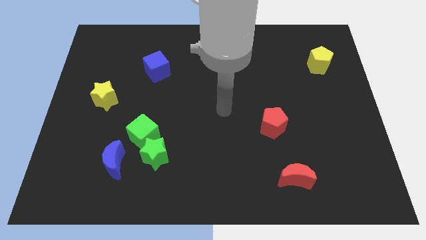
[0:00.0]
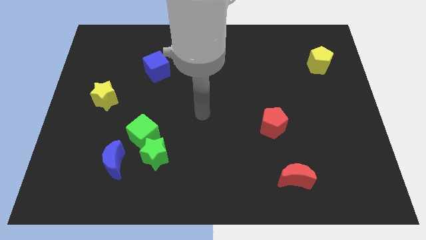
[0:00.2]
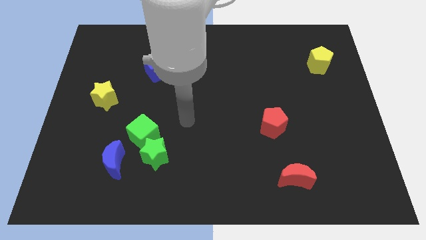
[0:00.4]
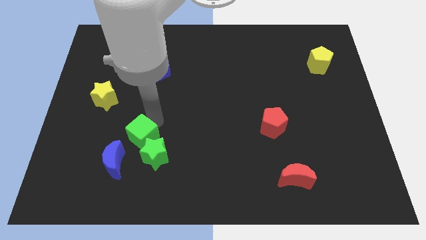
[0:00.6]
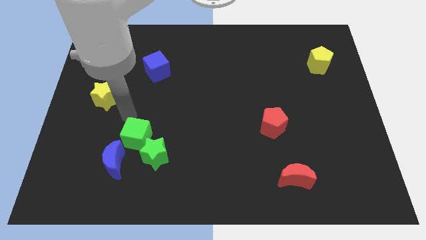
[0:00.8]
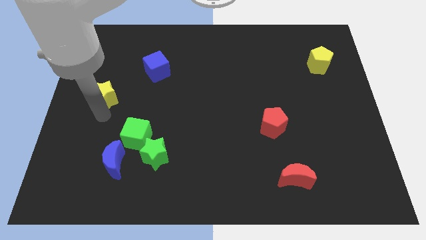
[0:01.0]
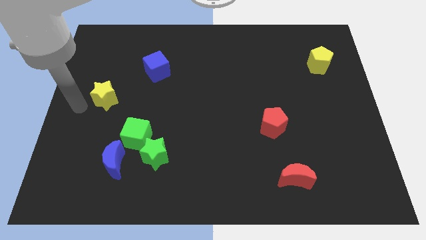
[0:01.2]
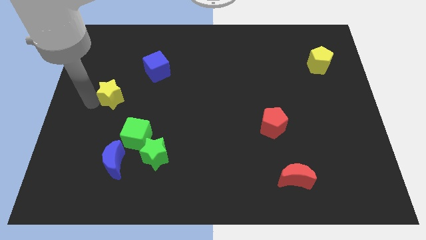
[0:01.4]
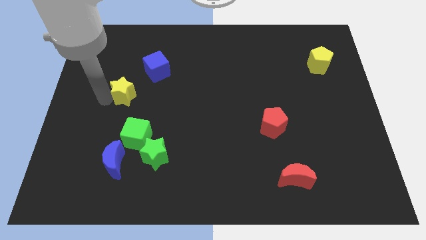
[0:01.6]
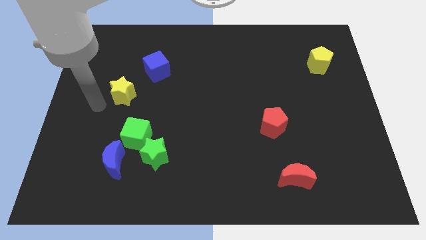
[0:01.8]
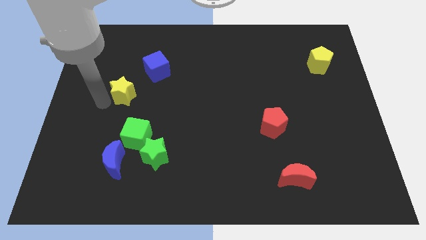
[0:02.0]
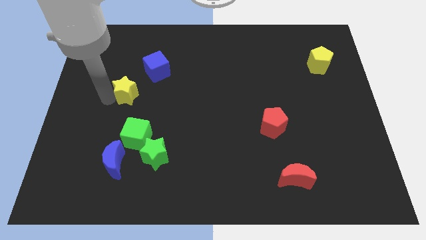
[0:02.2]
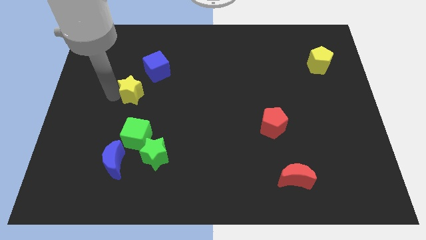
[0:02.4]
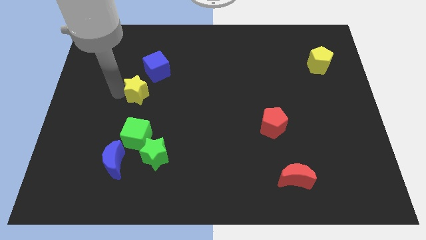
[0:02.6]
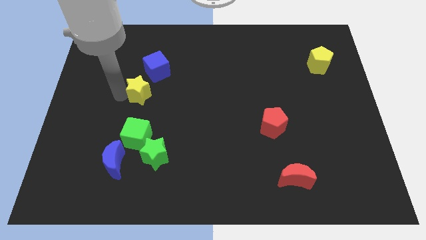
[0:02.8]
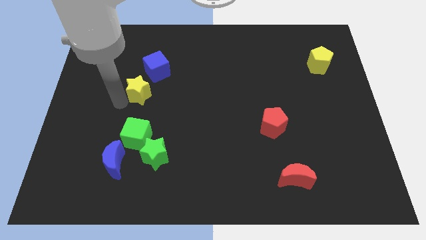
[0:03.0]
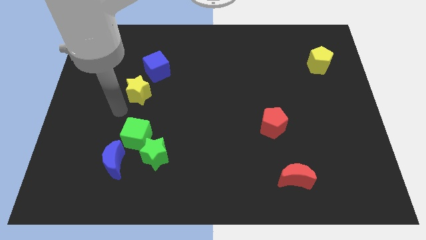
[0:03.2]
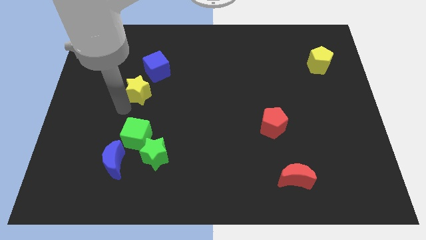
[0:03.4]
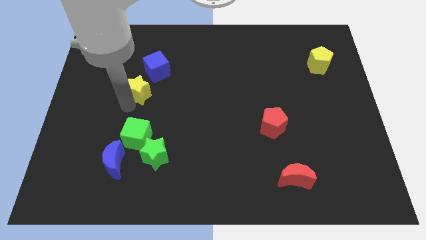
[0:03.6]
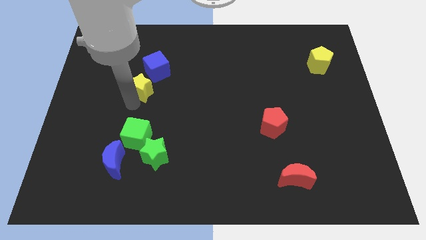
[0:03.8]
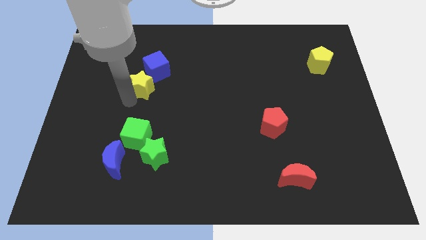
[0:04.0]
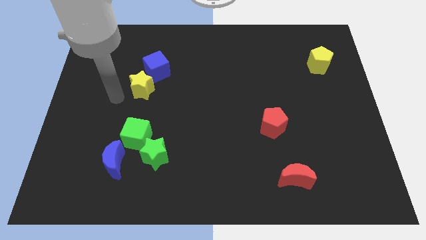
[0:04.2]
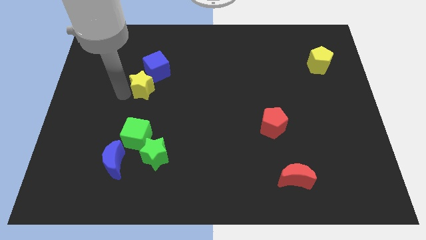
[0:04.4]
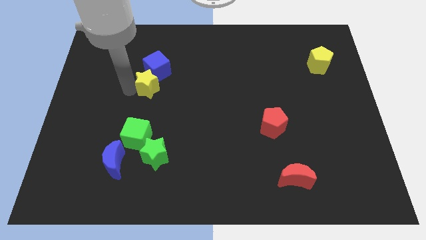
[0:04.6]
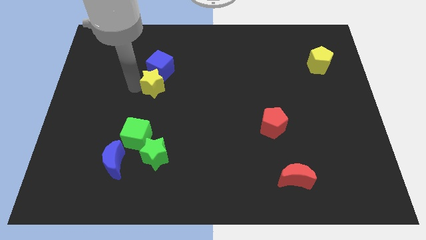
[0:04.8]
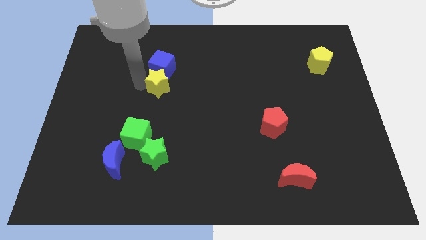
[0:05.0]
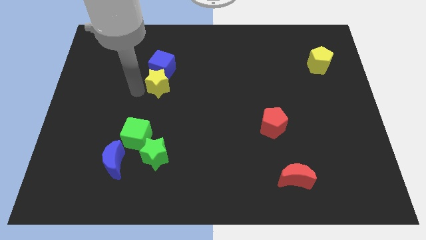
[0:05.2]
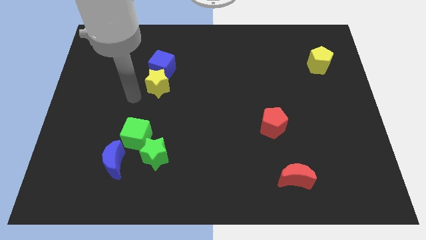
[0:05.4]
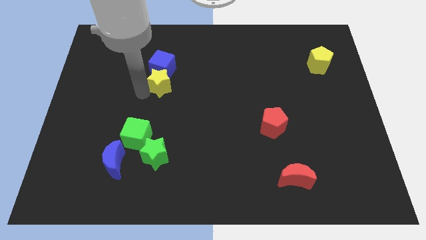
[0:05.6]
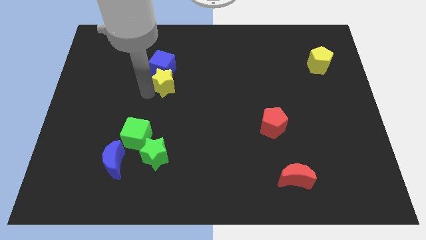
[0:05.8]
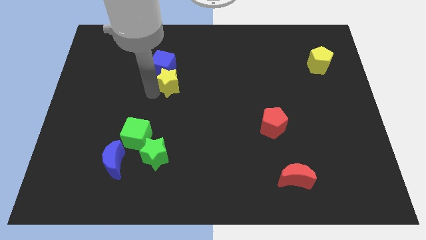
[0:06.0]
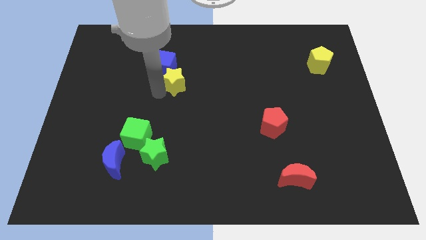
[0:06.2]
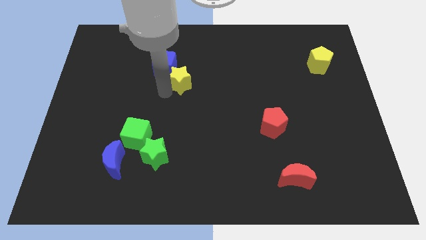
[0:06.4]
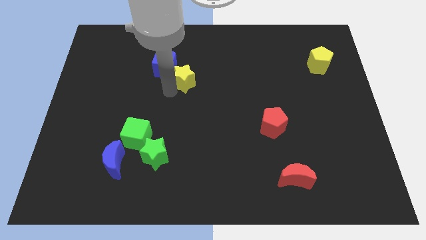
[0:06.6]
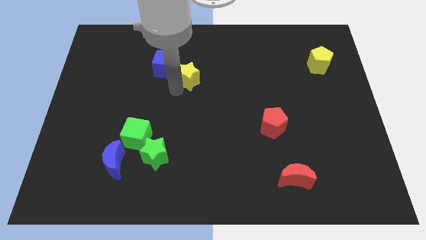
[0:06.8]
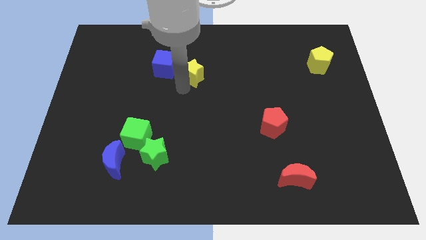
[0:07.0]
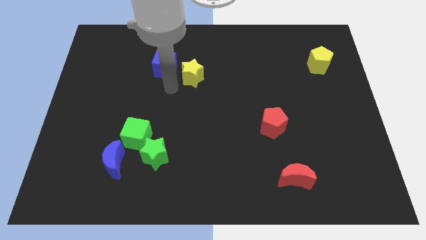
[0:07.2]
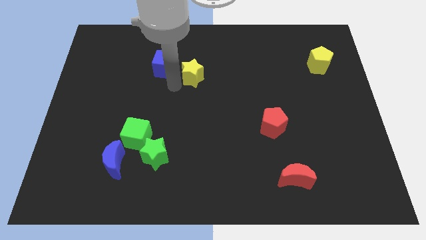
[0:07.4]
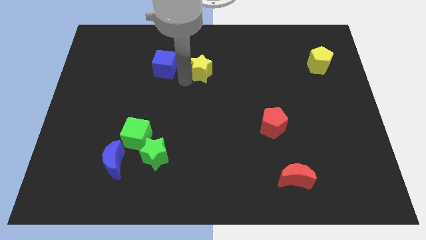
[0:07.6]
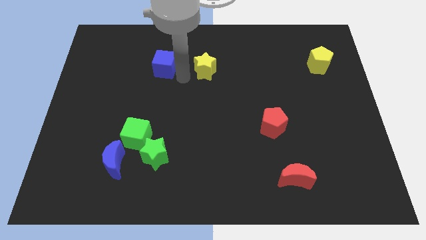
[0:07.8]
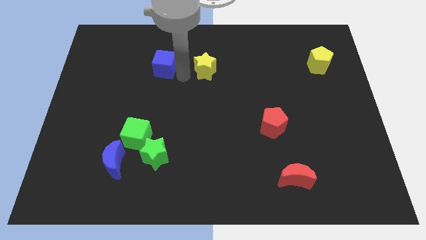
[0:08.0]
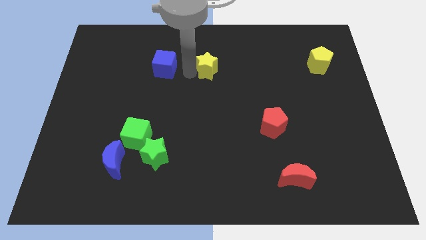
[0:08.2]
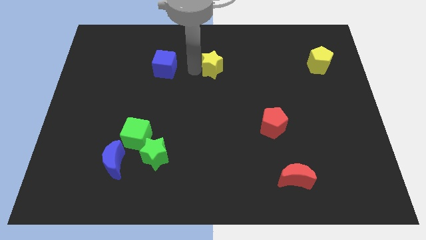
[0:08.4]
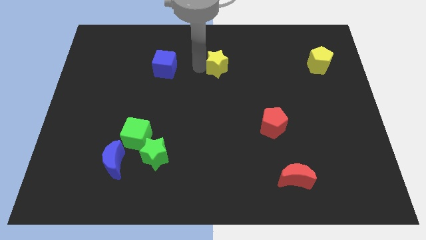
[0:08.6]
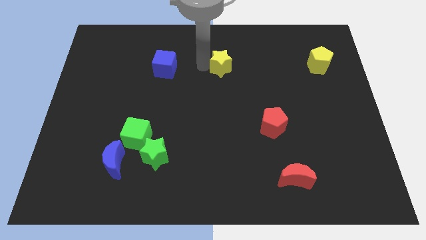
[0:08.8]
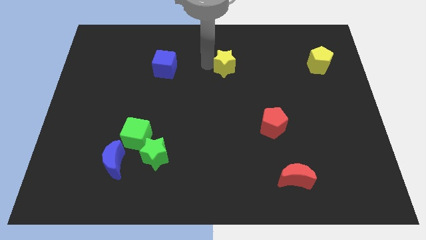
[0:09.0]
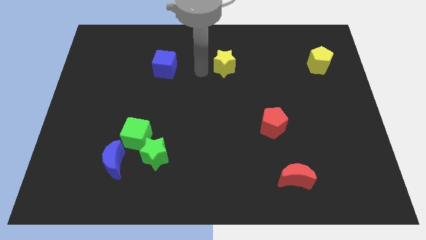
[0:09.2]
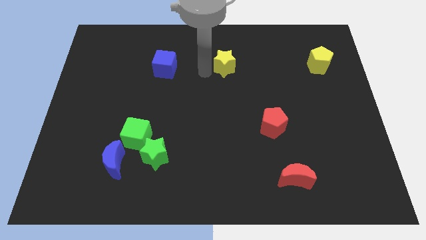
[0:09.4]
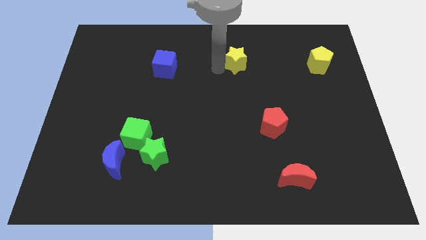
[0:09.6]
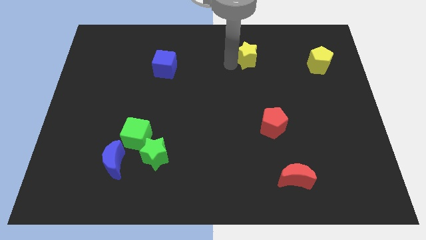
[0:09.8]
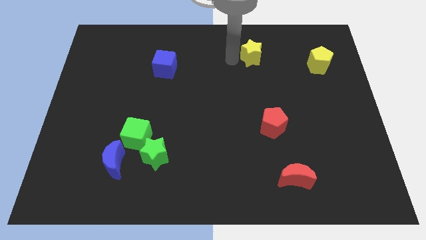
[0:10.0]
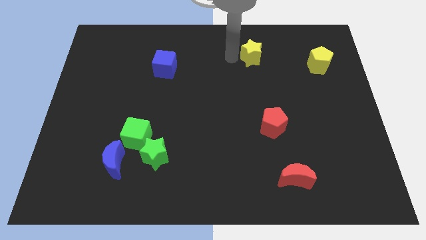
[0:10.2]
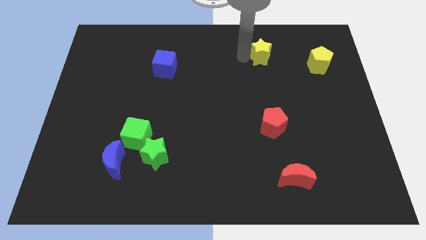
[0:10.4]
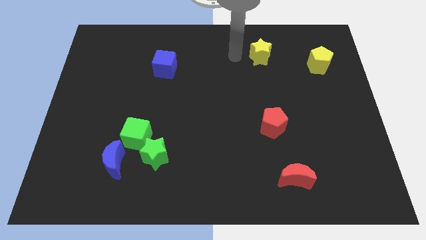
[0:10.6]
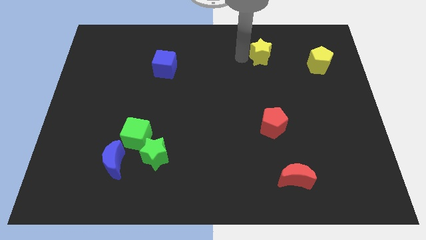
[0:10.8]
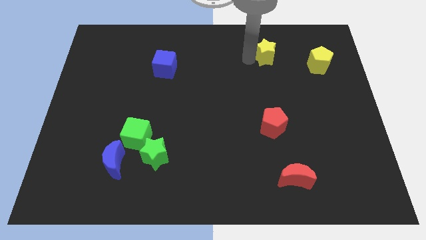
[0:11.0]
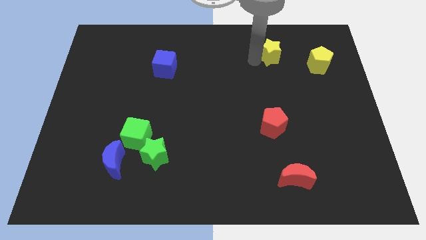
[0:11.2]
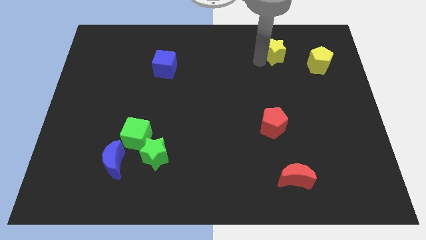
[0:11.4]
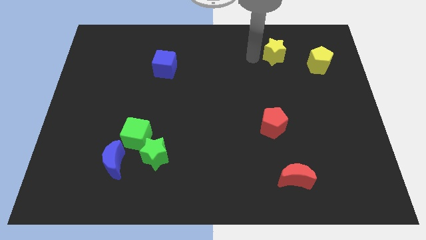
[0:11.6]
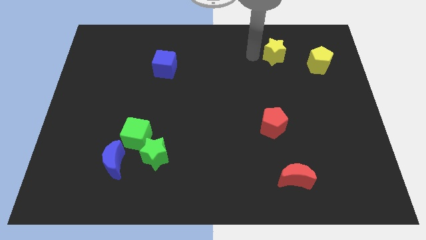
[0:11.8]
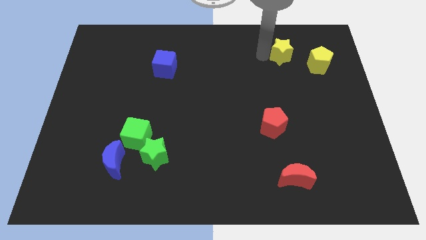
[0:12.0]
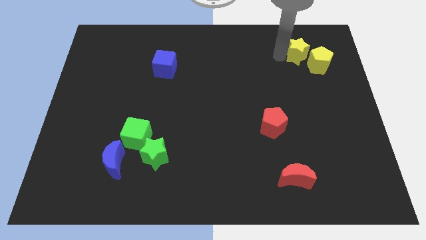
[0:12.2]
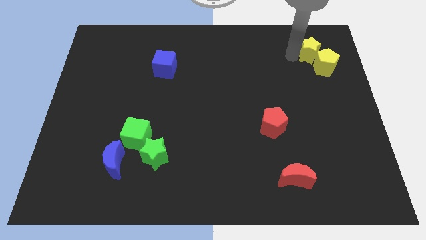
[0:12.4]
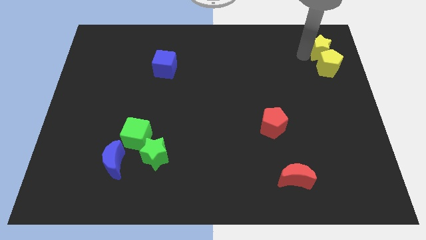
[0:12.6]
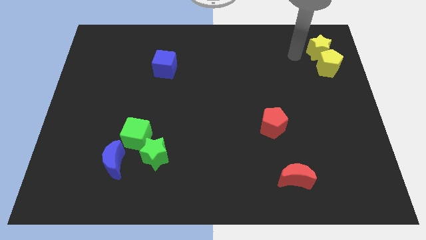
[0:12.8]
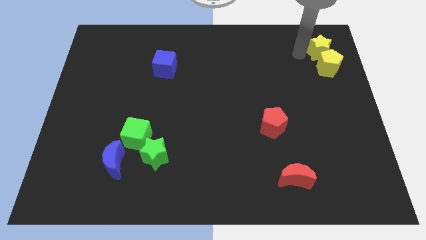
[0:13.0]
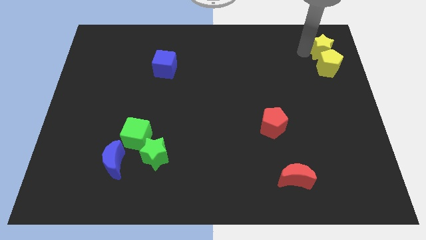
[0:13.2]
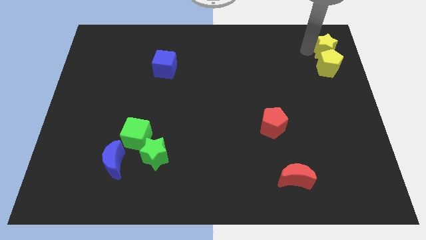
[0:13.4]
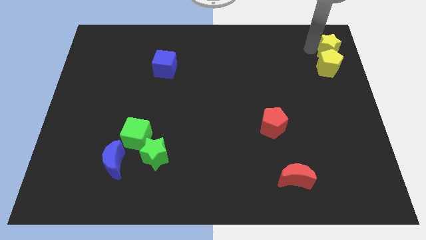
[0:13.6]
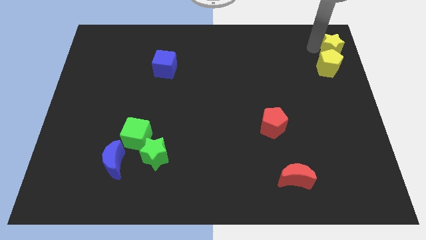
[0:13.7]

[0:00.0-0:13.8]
put the yellow star to the upper right corner
